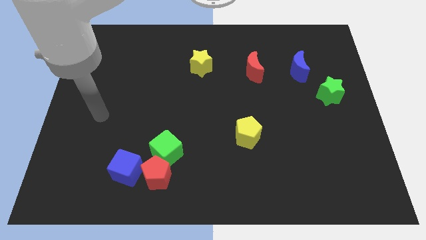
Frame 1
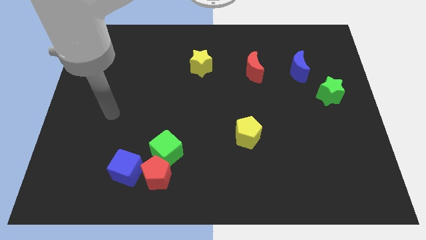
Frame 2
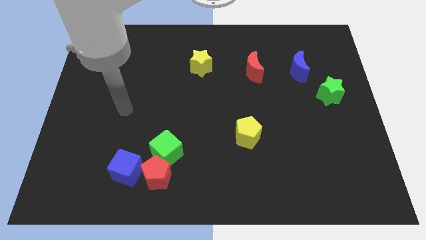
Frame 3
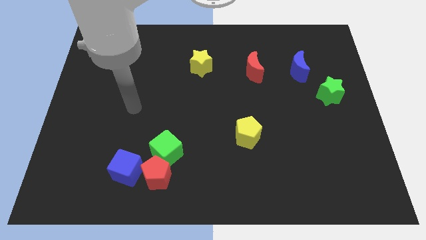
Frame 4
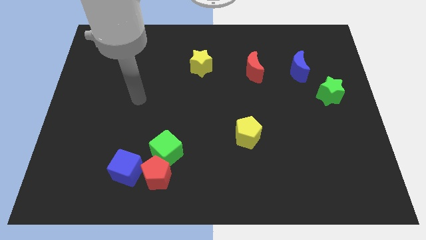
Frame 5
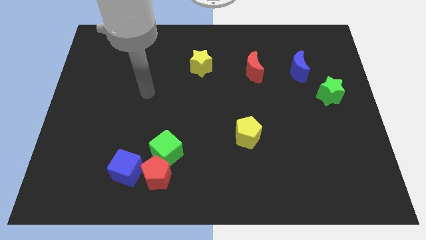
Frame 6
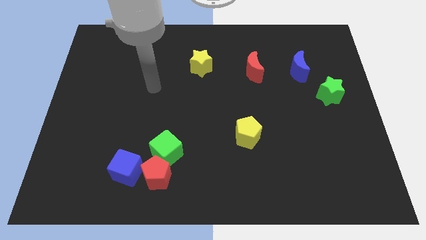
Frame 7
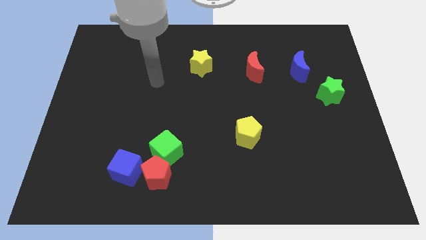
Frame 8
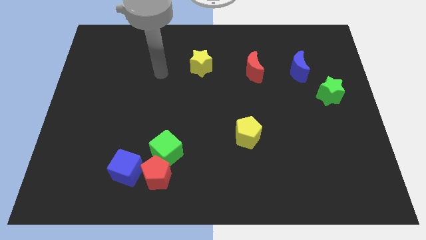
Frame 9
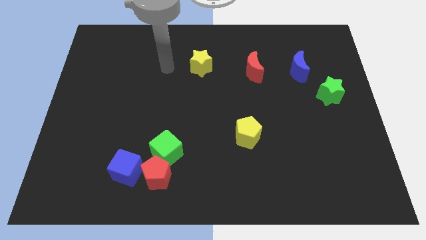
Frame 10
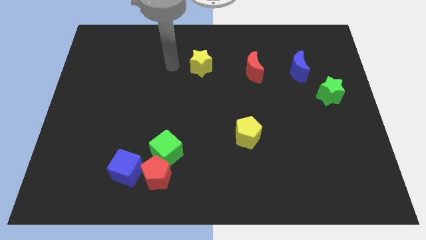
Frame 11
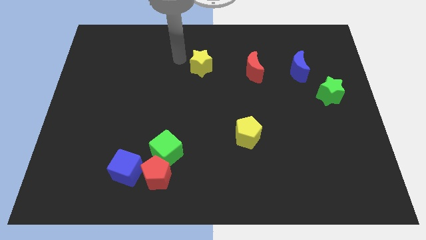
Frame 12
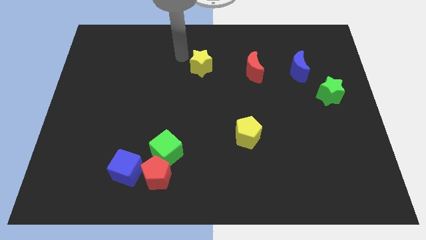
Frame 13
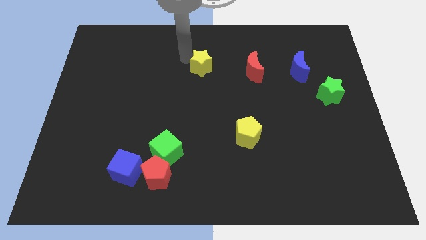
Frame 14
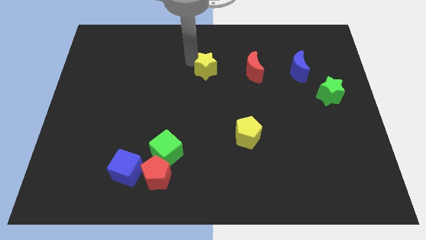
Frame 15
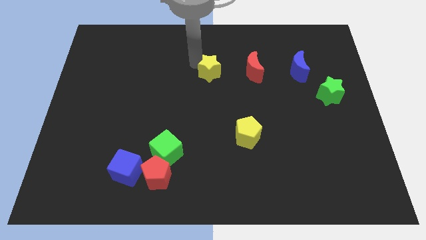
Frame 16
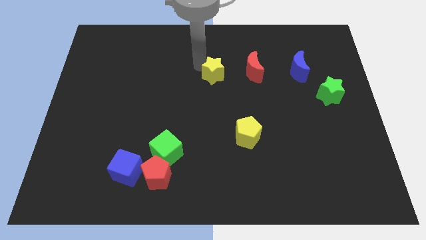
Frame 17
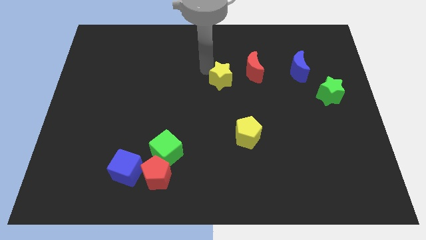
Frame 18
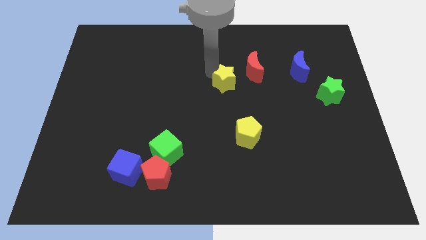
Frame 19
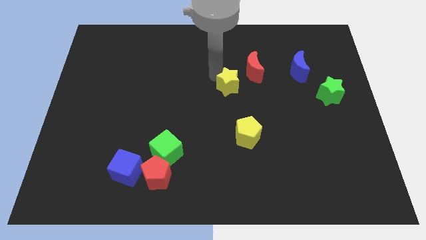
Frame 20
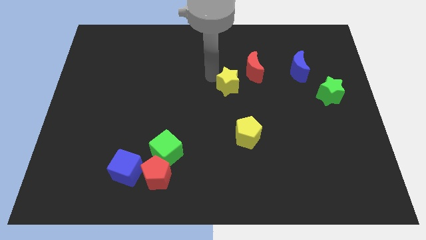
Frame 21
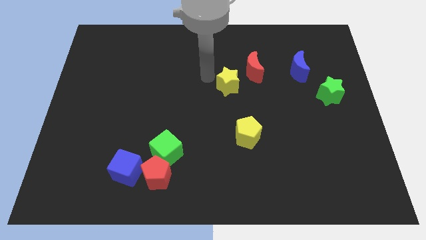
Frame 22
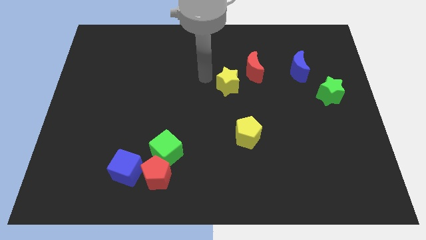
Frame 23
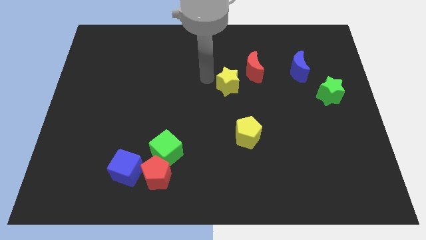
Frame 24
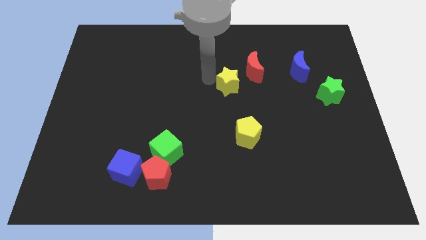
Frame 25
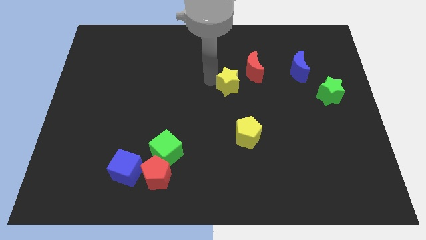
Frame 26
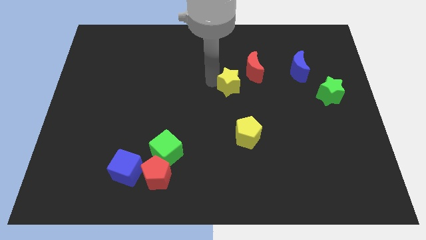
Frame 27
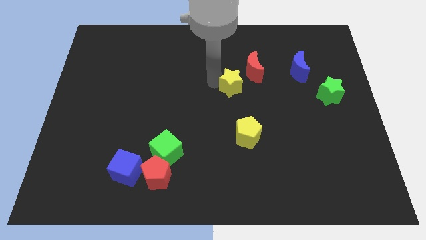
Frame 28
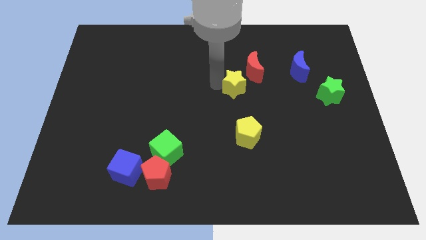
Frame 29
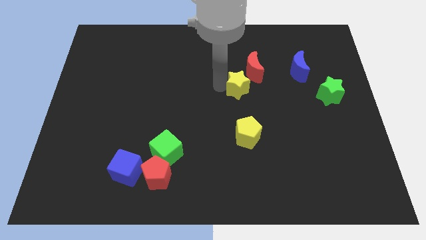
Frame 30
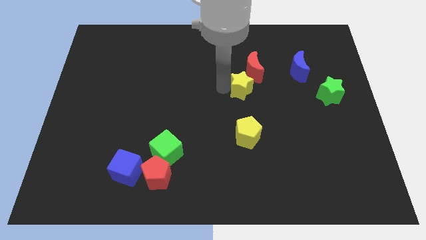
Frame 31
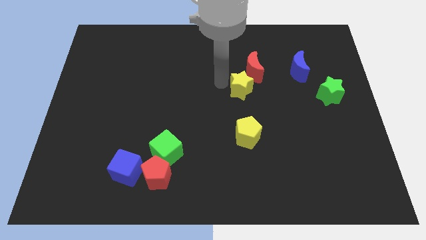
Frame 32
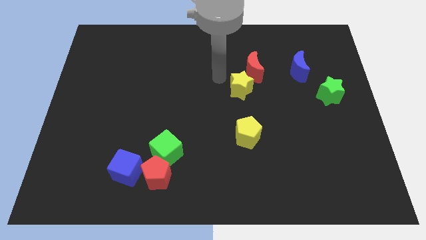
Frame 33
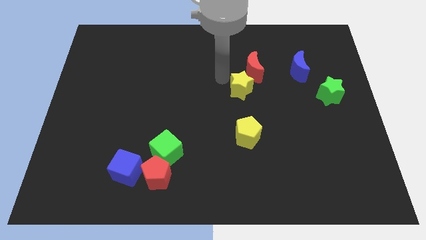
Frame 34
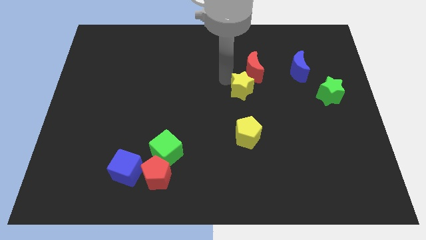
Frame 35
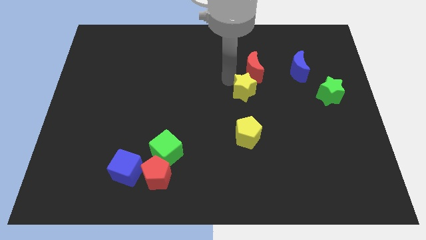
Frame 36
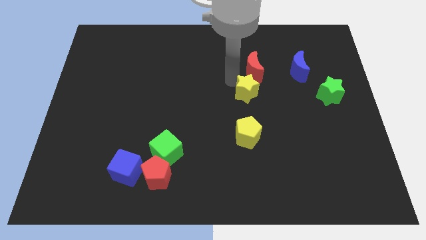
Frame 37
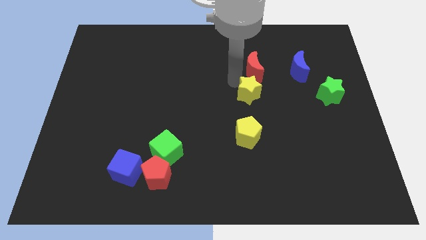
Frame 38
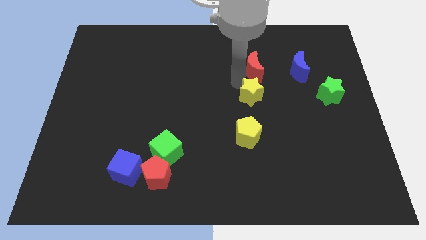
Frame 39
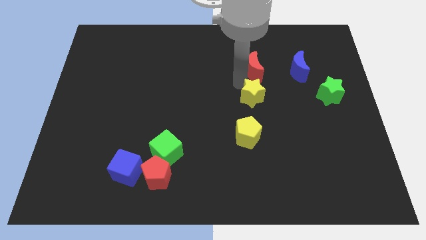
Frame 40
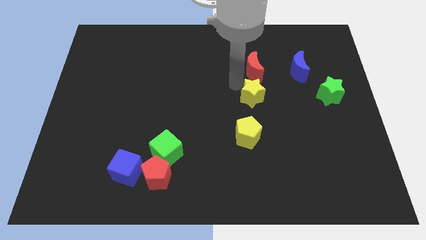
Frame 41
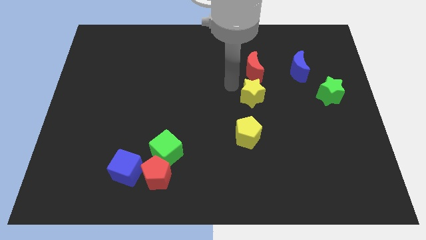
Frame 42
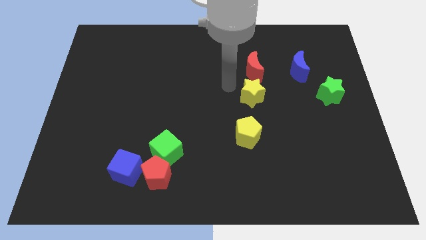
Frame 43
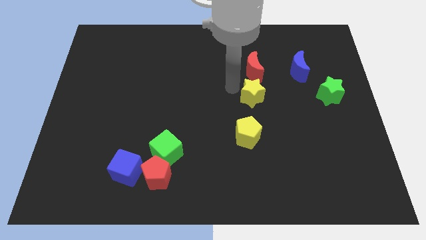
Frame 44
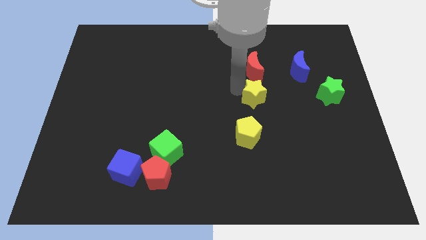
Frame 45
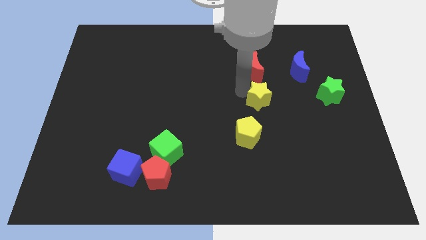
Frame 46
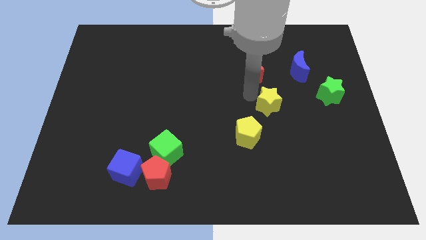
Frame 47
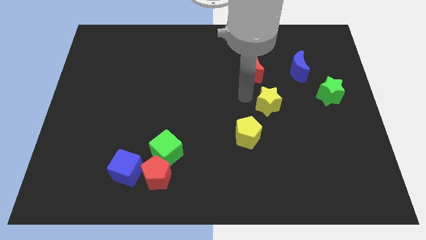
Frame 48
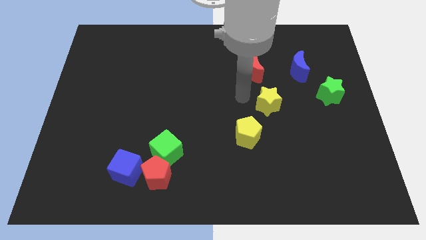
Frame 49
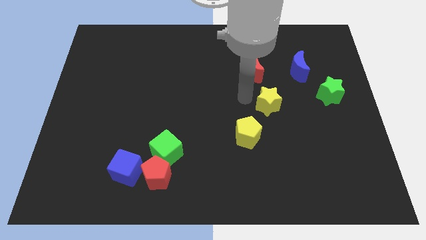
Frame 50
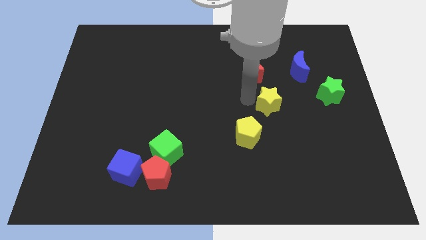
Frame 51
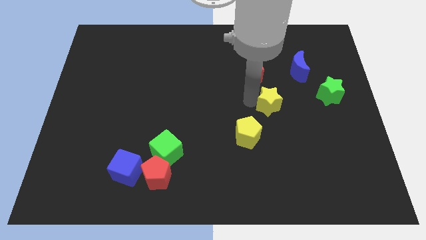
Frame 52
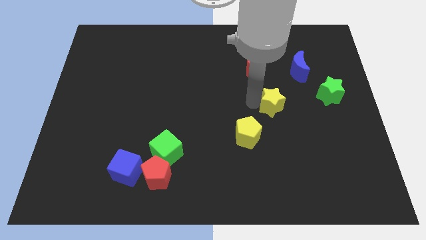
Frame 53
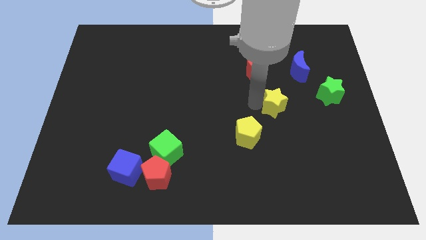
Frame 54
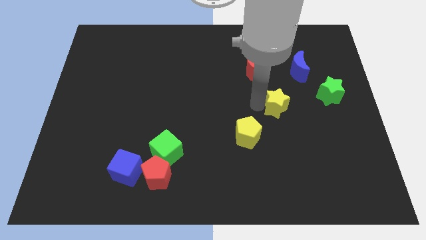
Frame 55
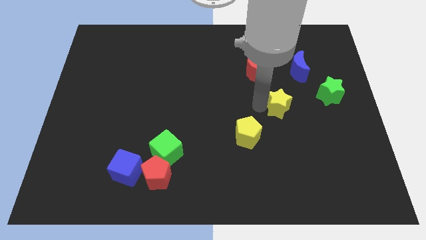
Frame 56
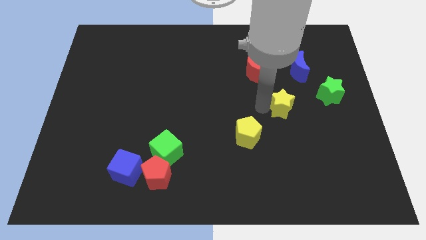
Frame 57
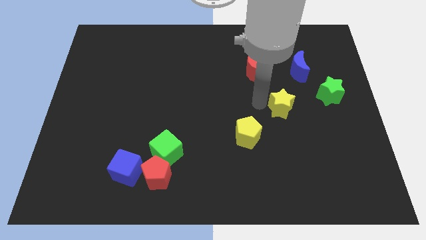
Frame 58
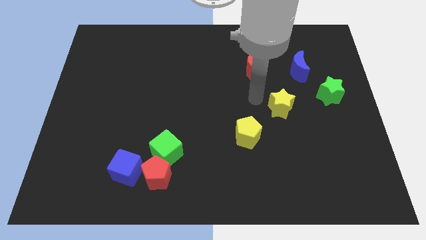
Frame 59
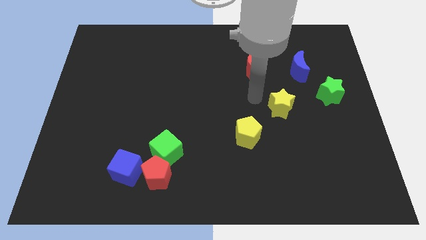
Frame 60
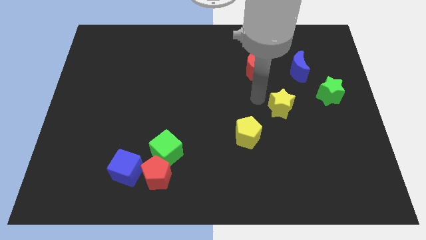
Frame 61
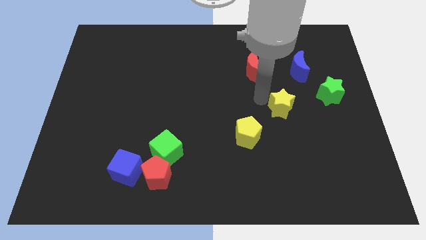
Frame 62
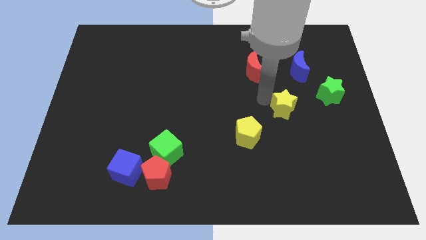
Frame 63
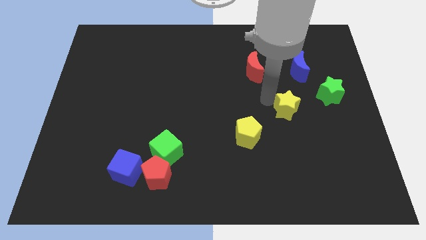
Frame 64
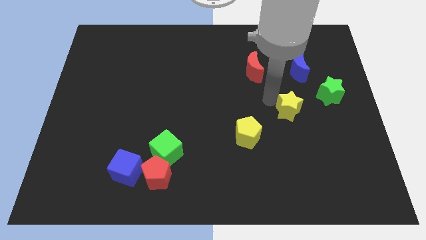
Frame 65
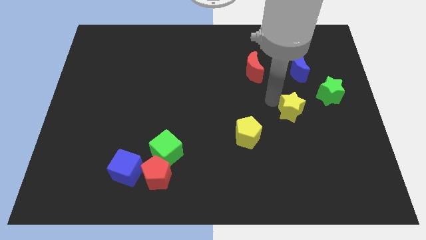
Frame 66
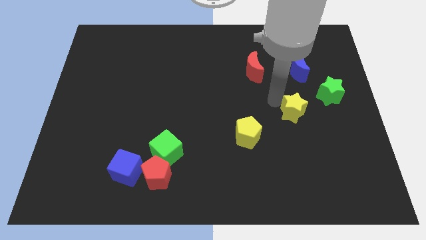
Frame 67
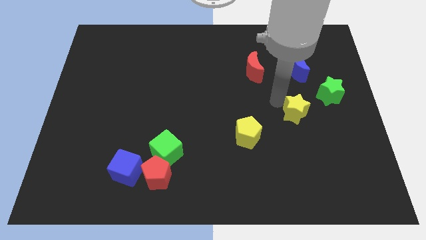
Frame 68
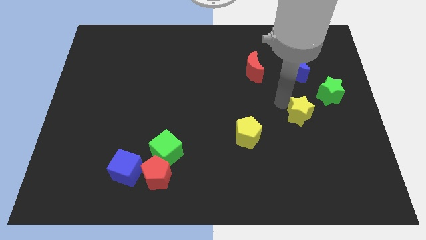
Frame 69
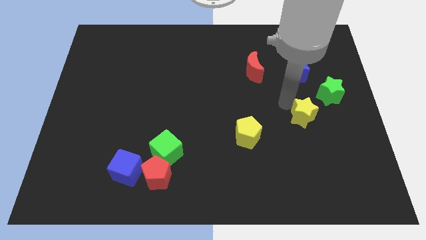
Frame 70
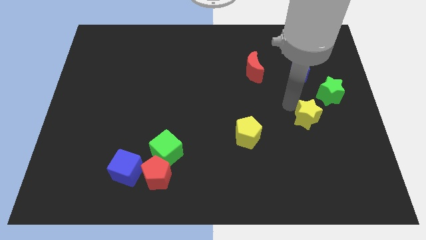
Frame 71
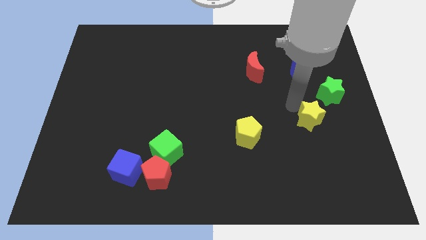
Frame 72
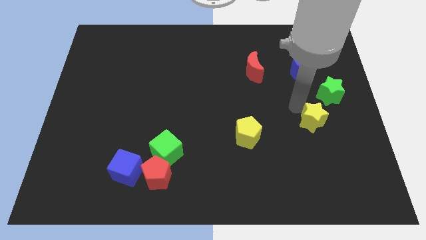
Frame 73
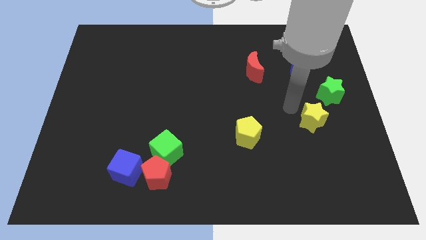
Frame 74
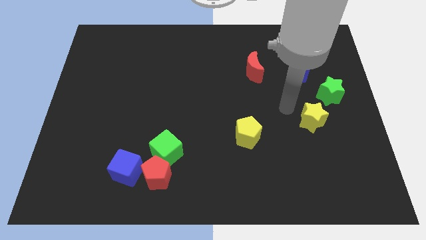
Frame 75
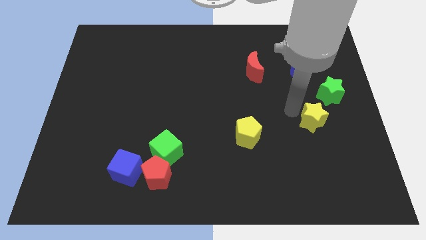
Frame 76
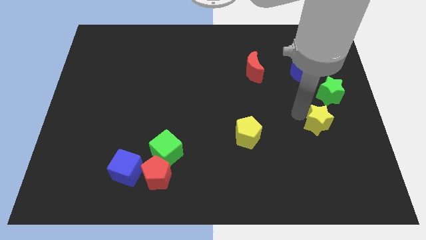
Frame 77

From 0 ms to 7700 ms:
slide the yellow star to the bottom of the green star
